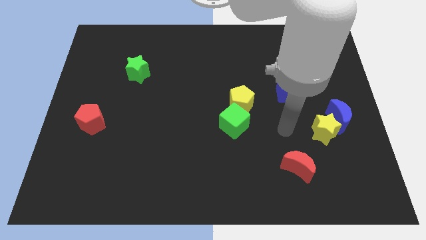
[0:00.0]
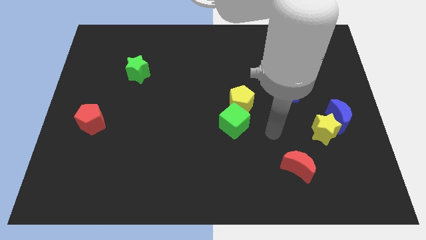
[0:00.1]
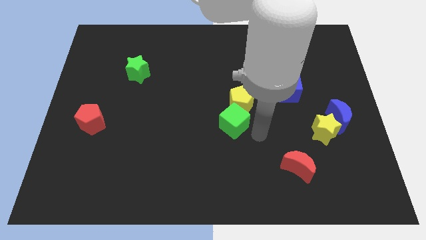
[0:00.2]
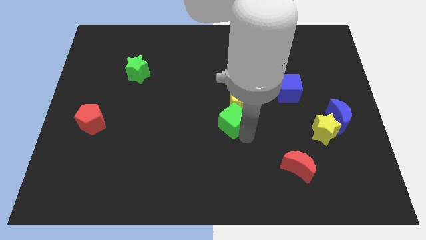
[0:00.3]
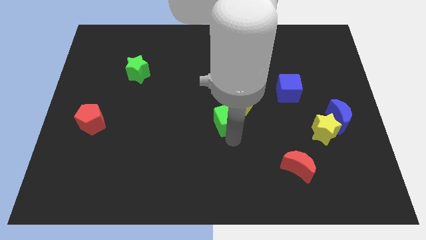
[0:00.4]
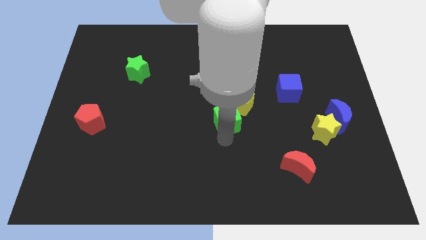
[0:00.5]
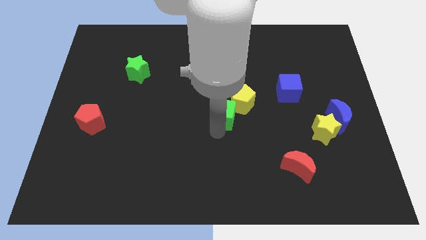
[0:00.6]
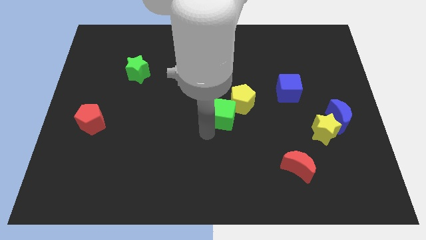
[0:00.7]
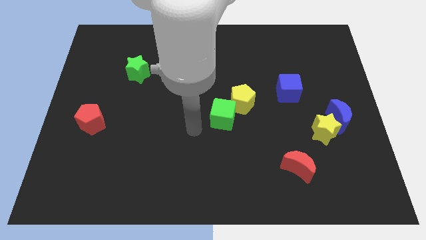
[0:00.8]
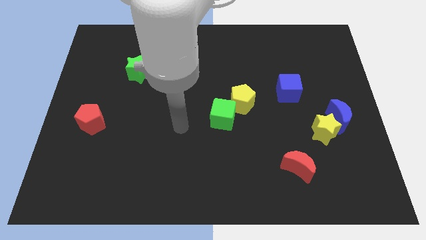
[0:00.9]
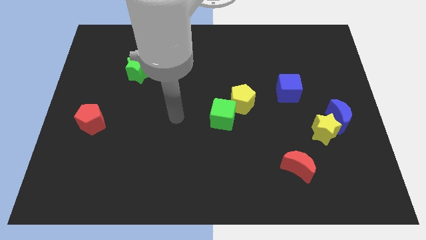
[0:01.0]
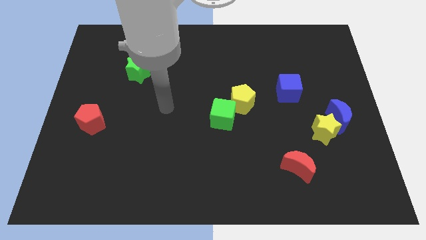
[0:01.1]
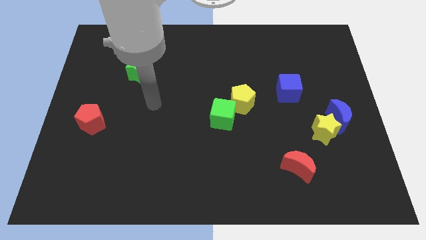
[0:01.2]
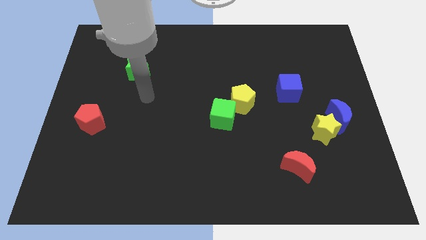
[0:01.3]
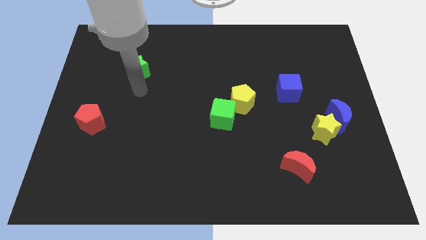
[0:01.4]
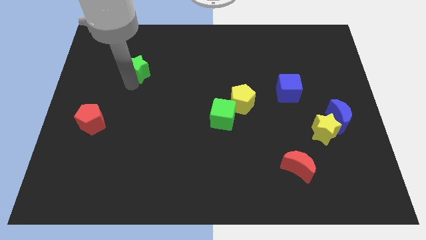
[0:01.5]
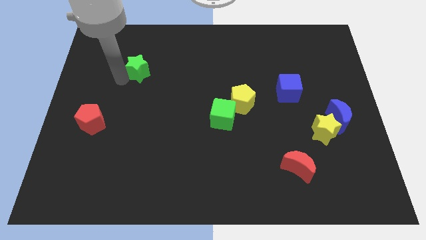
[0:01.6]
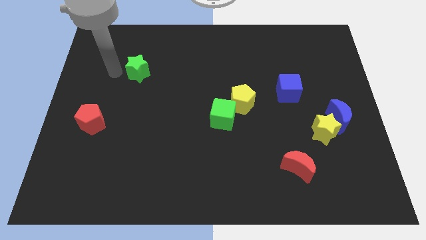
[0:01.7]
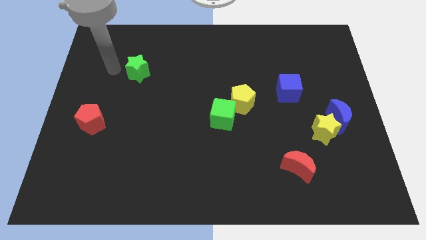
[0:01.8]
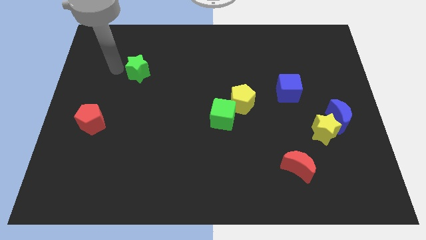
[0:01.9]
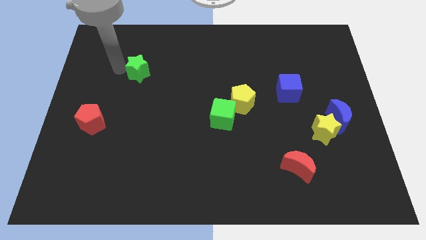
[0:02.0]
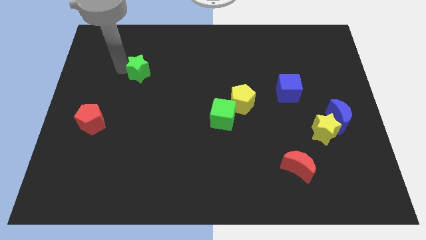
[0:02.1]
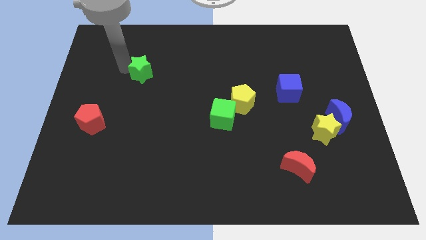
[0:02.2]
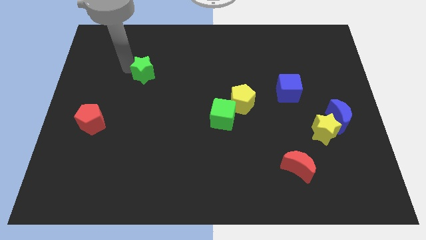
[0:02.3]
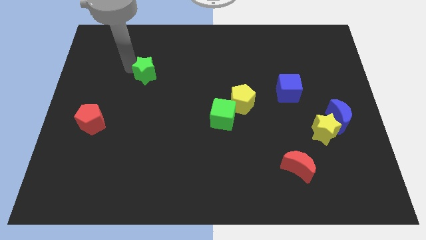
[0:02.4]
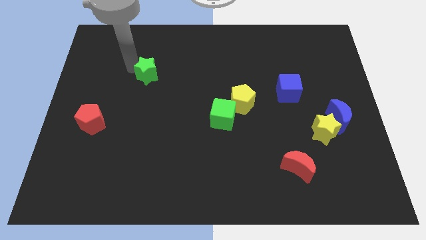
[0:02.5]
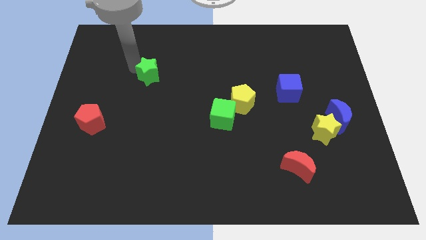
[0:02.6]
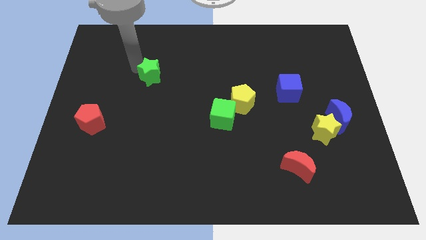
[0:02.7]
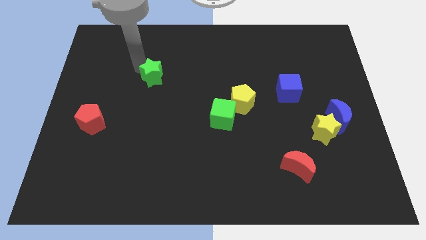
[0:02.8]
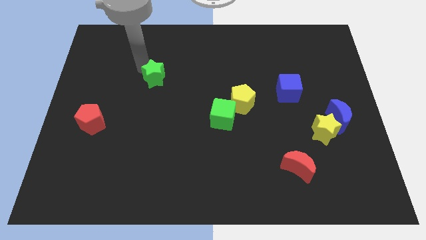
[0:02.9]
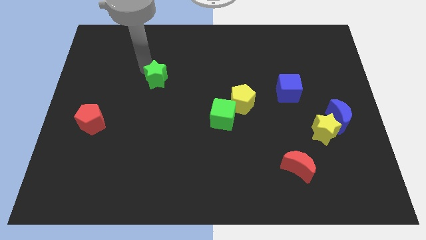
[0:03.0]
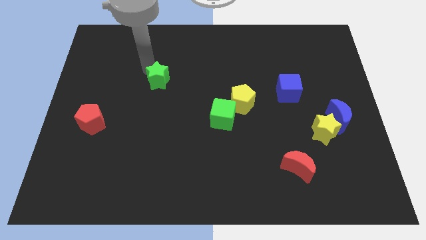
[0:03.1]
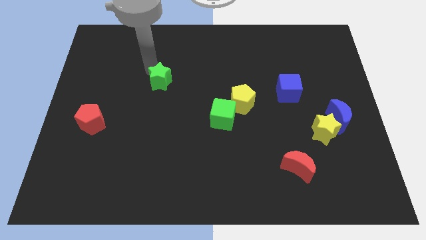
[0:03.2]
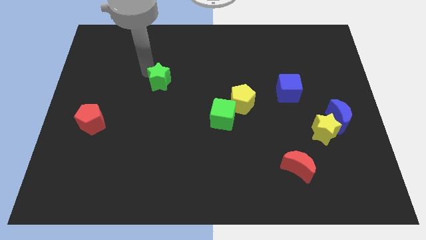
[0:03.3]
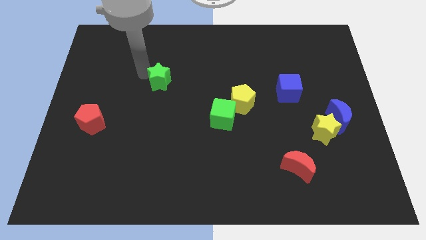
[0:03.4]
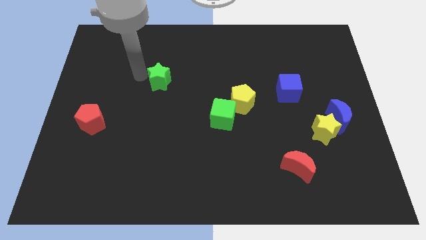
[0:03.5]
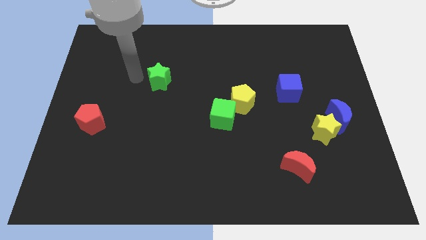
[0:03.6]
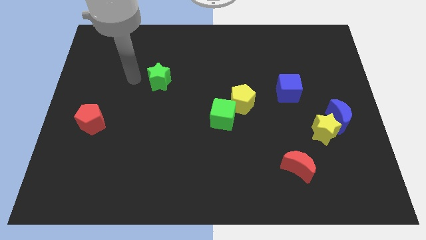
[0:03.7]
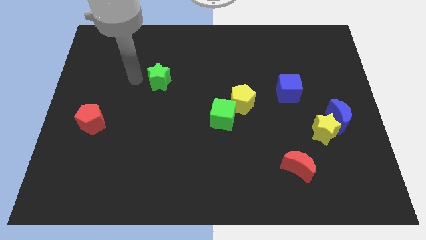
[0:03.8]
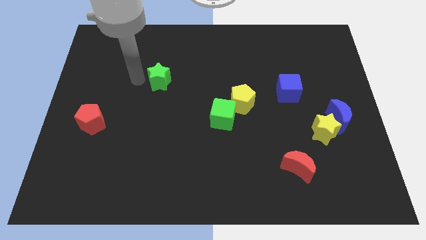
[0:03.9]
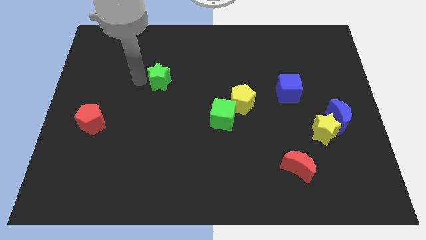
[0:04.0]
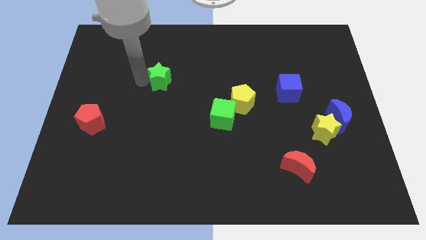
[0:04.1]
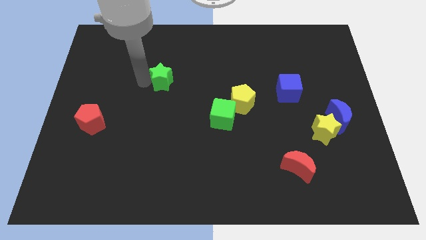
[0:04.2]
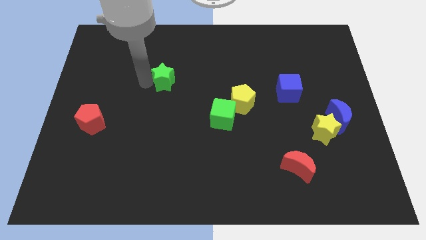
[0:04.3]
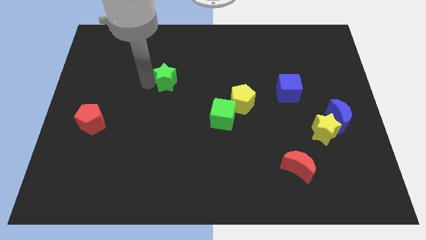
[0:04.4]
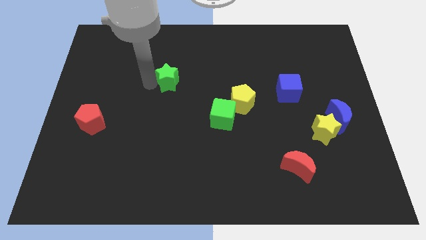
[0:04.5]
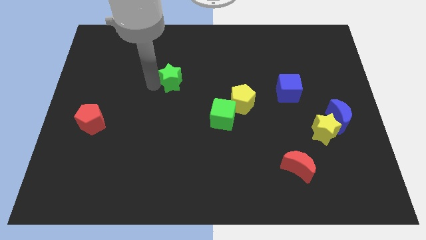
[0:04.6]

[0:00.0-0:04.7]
move the green star to the middle

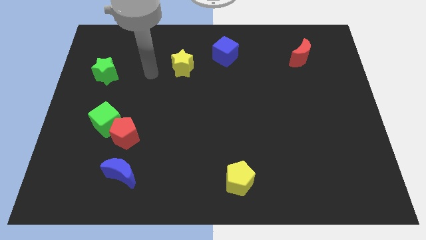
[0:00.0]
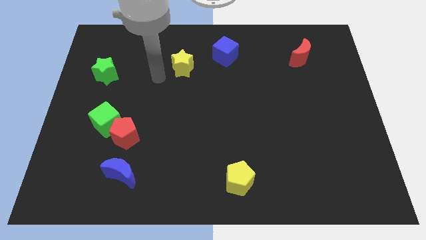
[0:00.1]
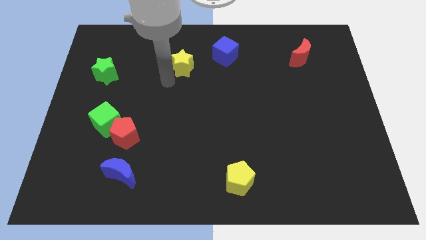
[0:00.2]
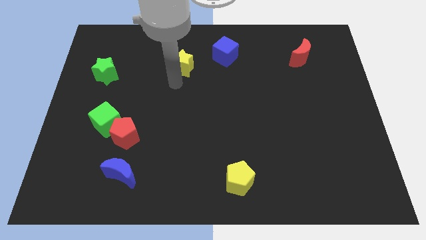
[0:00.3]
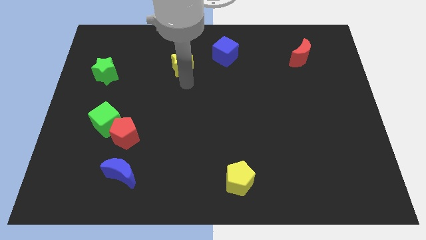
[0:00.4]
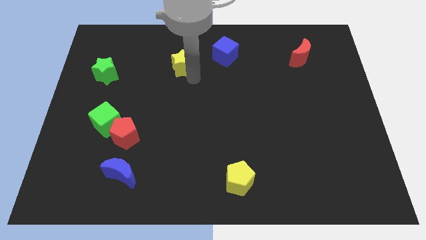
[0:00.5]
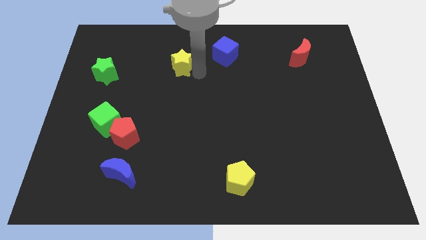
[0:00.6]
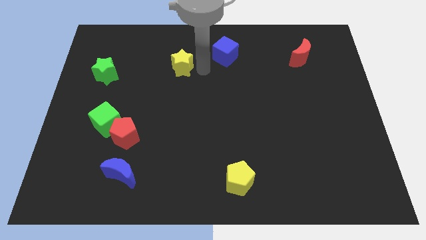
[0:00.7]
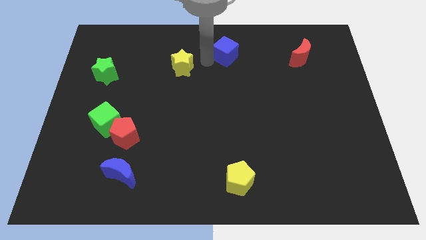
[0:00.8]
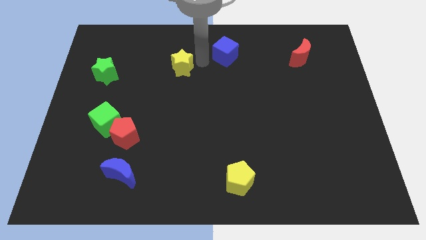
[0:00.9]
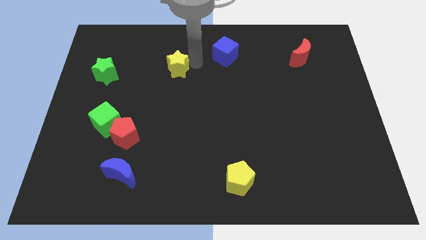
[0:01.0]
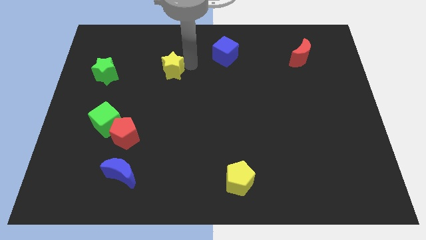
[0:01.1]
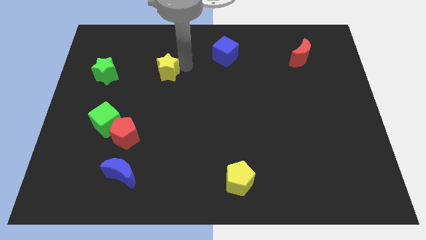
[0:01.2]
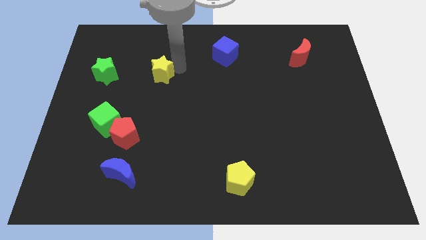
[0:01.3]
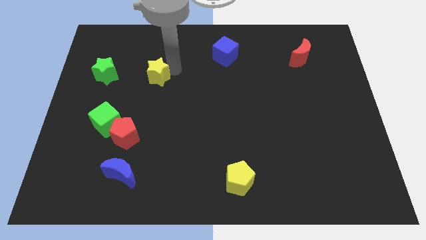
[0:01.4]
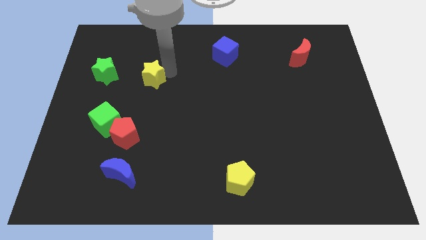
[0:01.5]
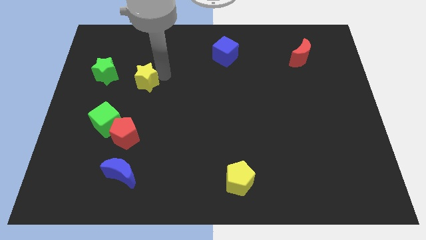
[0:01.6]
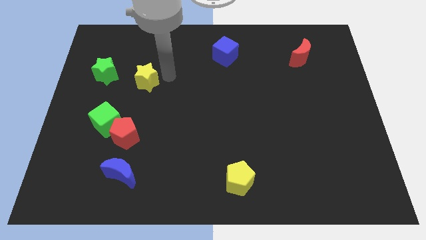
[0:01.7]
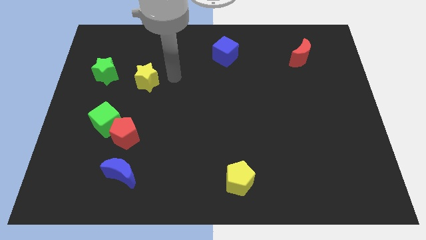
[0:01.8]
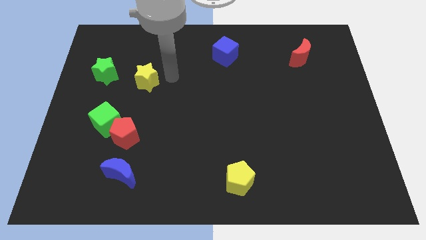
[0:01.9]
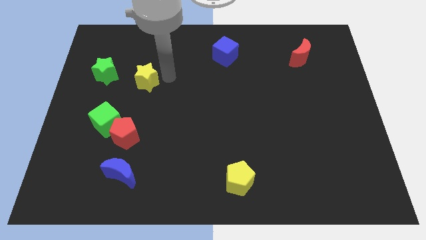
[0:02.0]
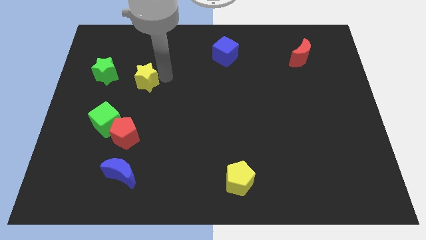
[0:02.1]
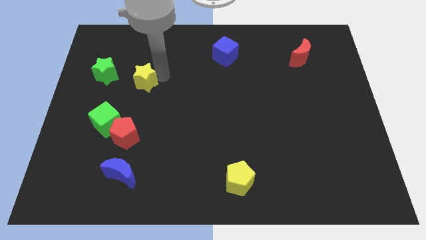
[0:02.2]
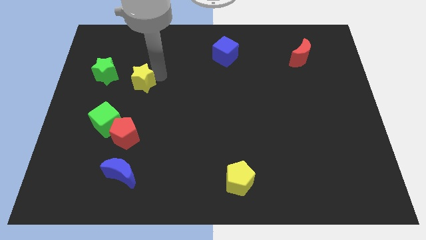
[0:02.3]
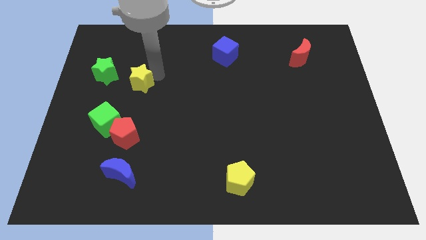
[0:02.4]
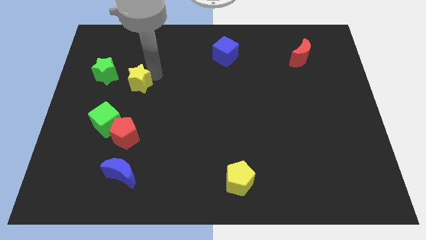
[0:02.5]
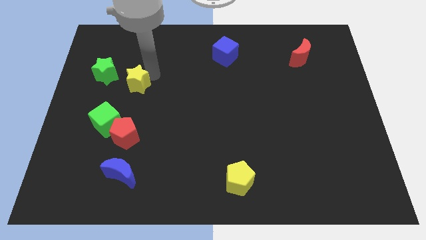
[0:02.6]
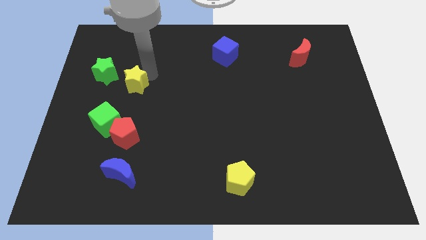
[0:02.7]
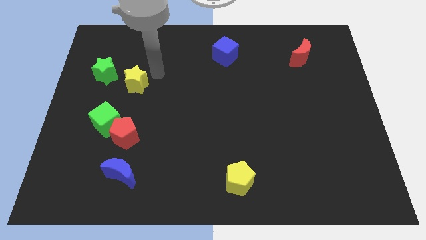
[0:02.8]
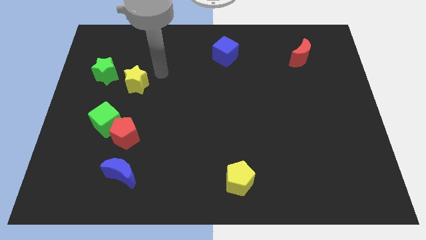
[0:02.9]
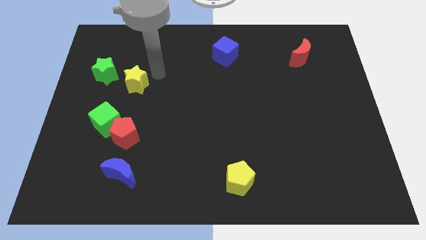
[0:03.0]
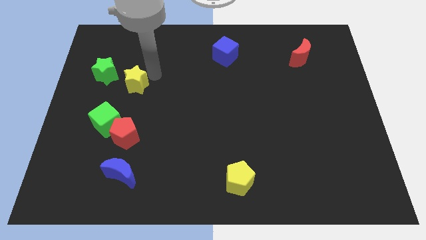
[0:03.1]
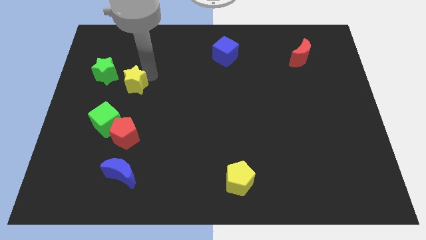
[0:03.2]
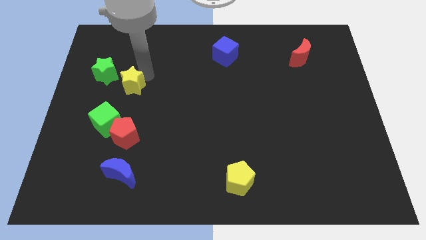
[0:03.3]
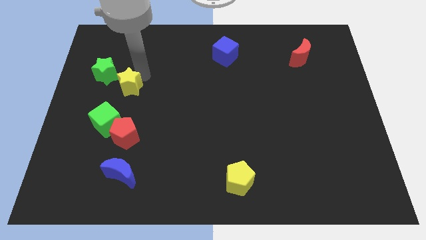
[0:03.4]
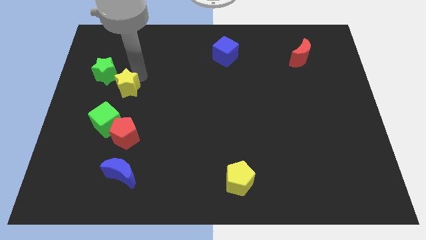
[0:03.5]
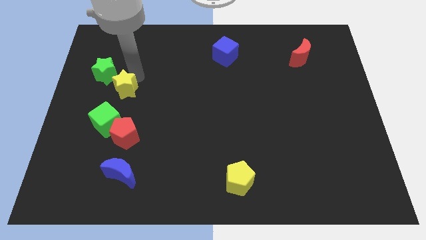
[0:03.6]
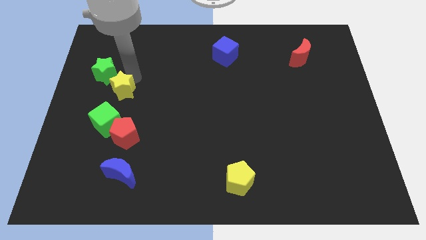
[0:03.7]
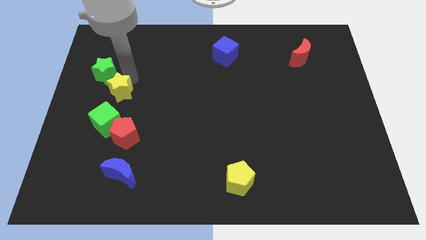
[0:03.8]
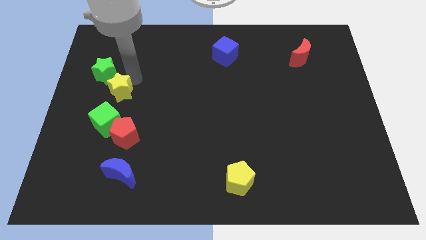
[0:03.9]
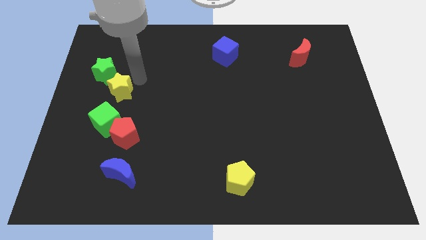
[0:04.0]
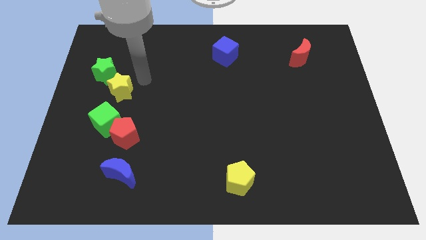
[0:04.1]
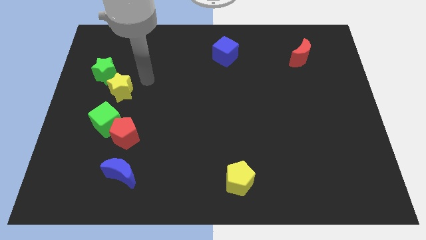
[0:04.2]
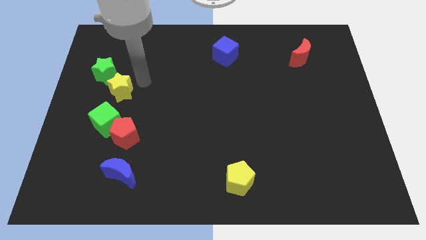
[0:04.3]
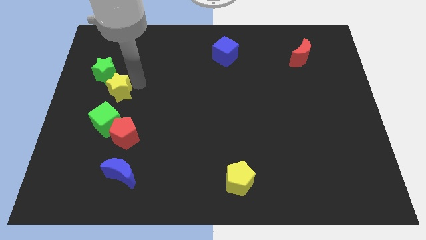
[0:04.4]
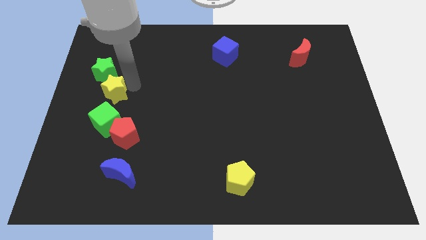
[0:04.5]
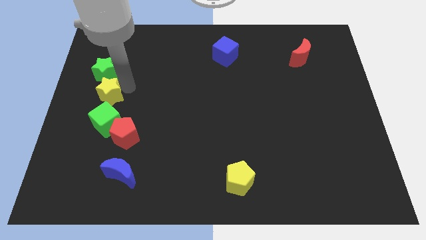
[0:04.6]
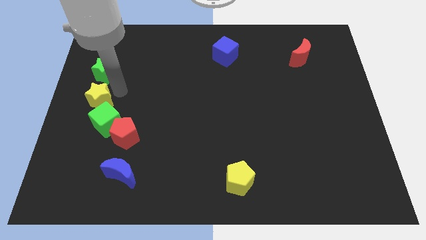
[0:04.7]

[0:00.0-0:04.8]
put the yellow star to the left side of the board
